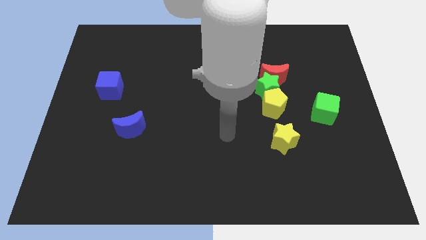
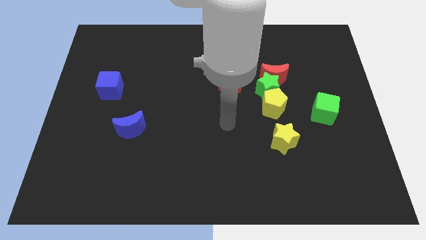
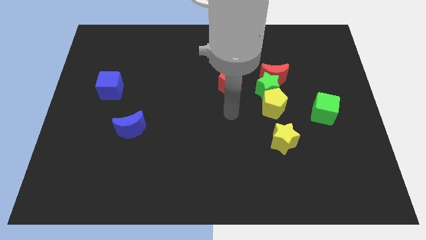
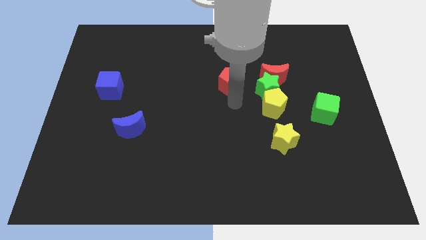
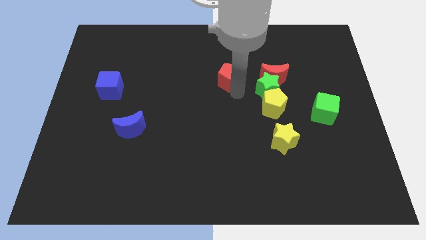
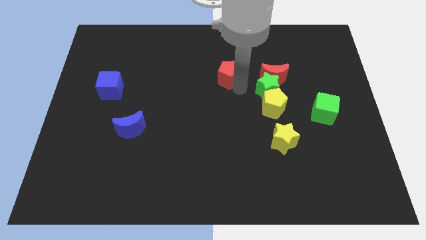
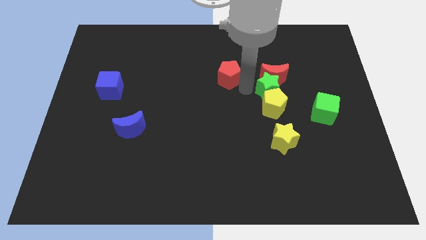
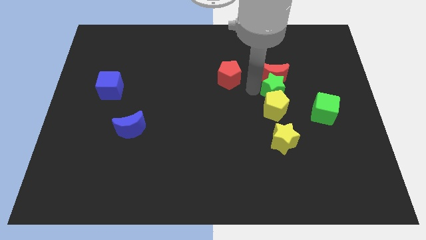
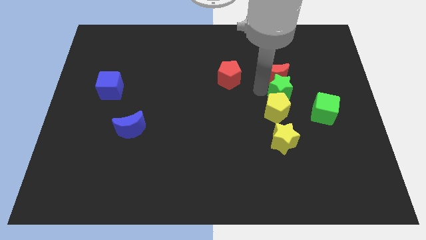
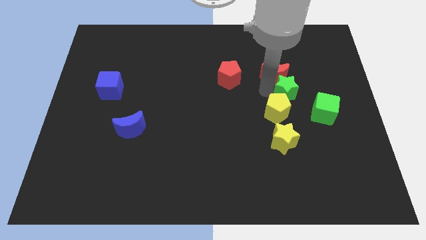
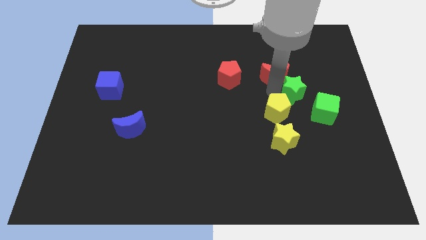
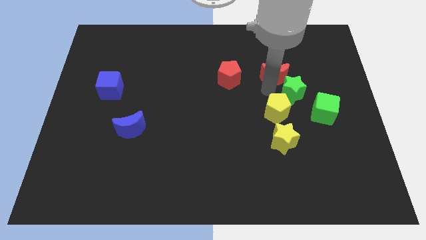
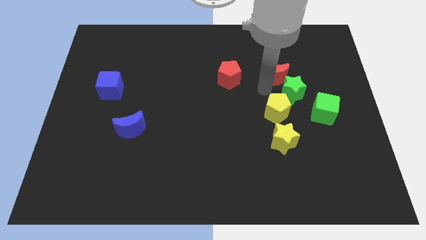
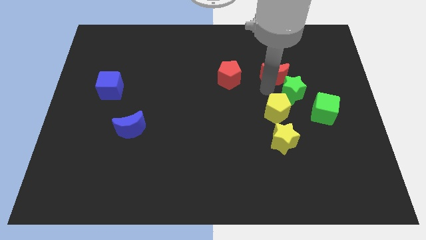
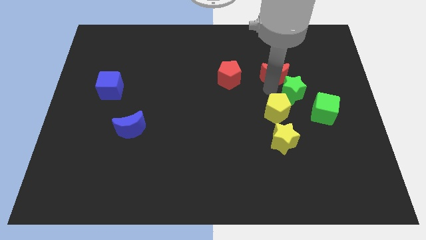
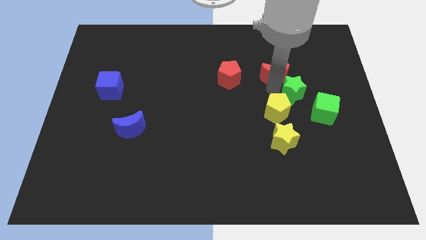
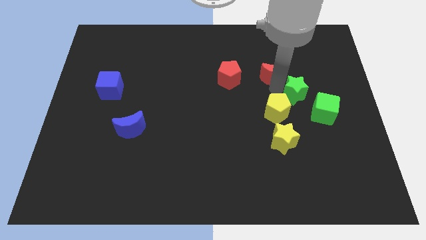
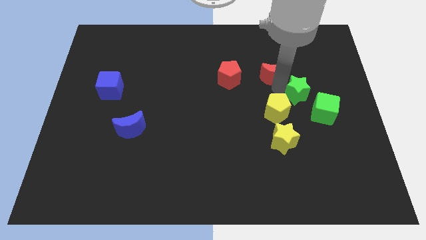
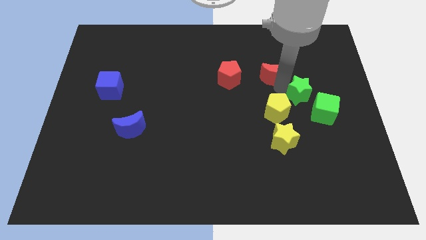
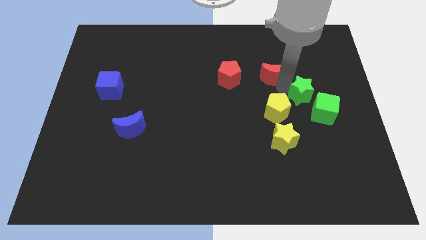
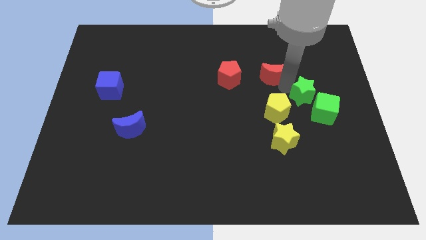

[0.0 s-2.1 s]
separate the green star from the group

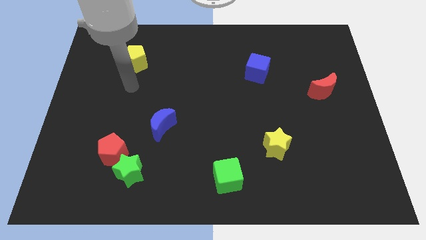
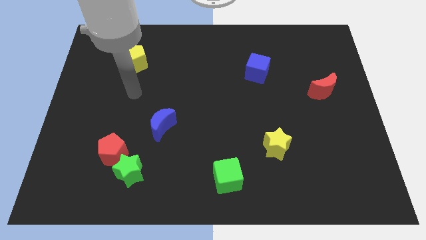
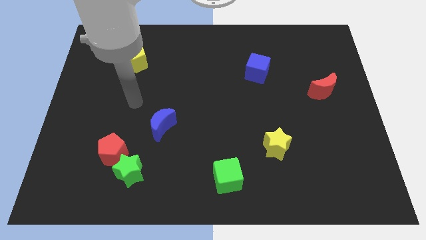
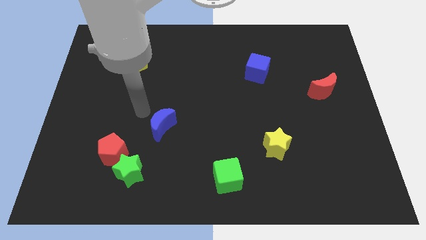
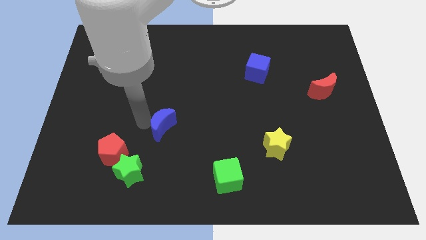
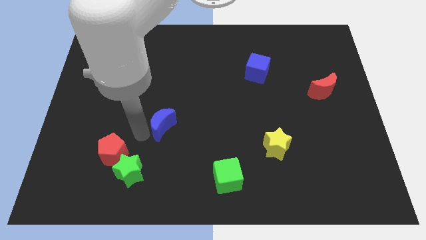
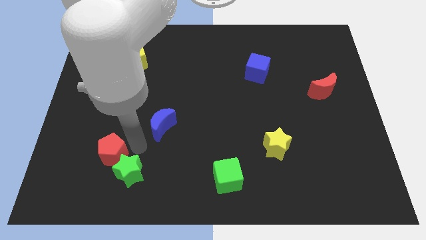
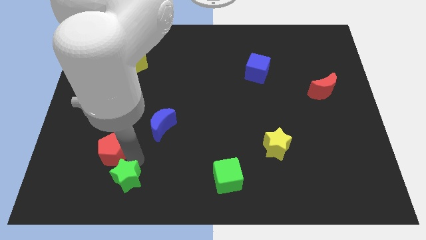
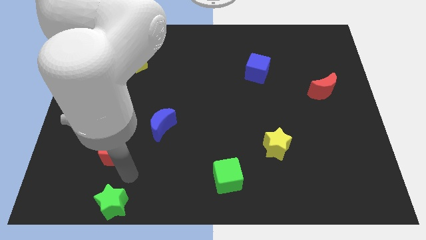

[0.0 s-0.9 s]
pull the red pentagon apart from the green star

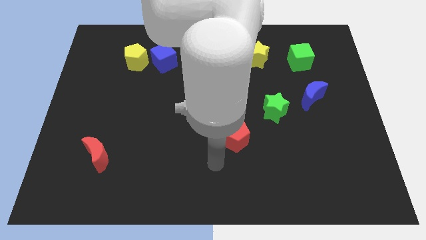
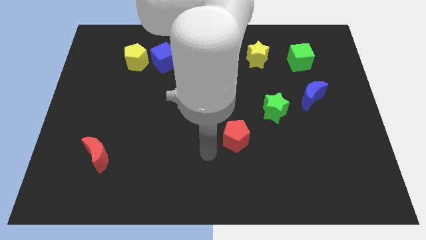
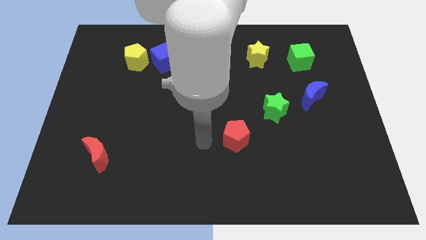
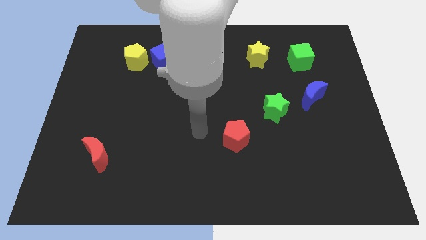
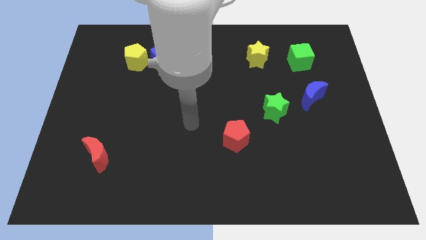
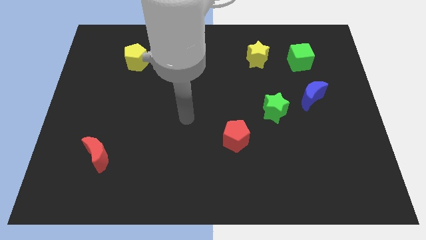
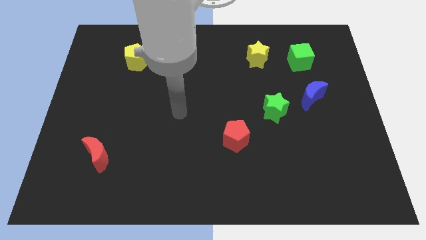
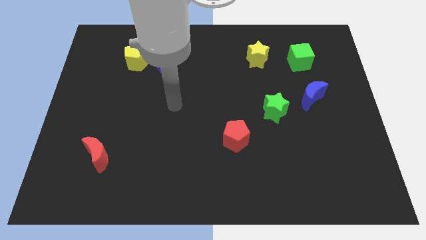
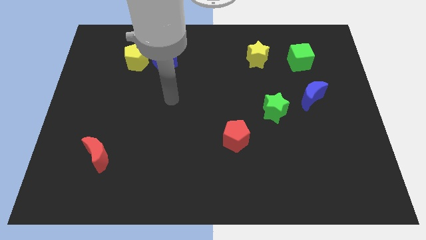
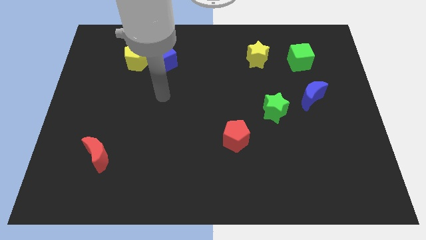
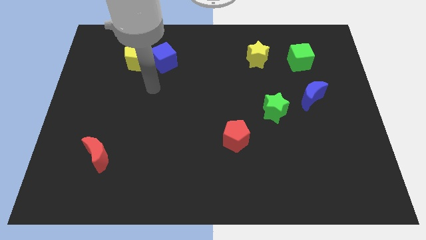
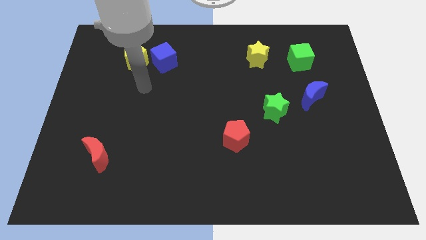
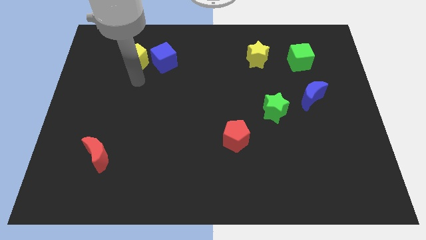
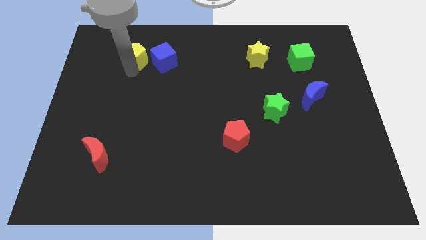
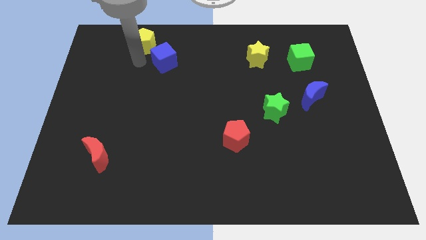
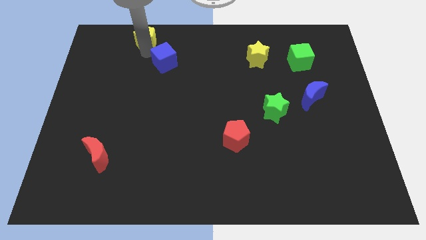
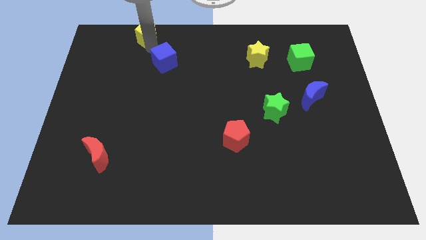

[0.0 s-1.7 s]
separate the blue cube from the yellow pentagon

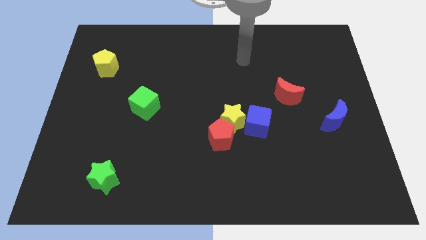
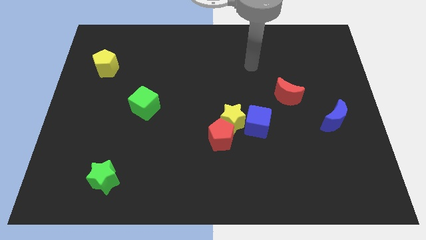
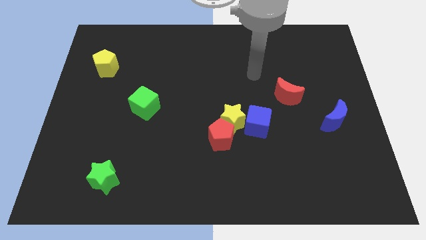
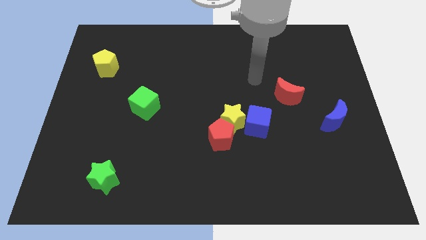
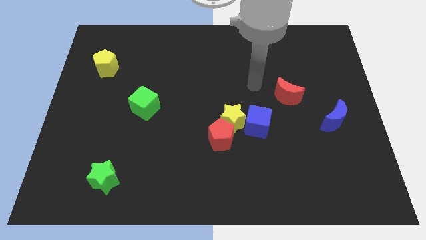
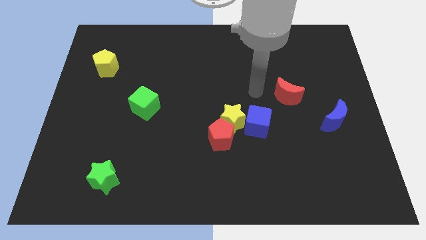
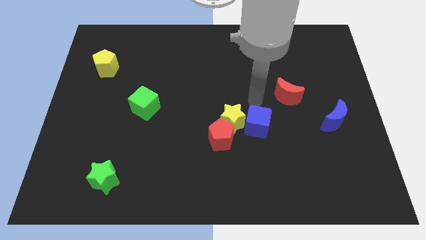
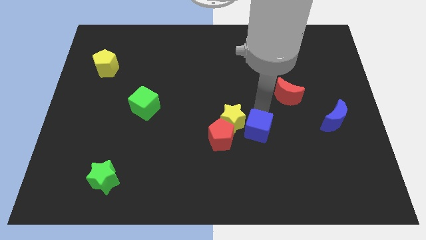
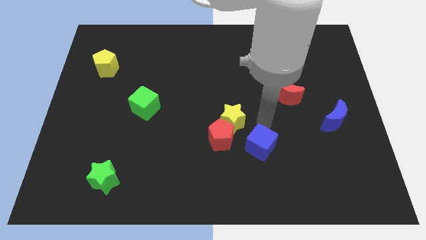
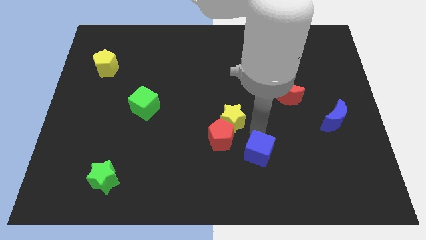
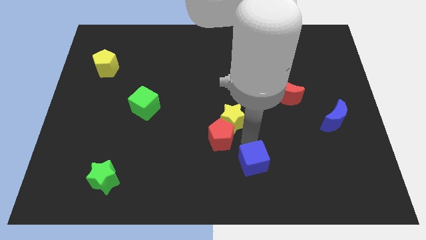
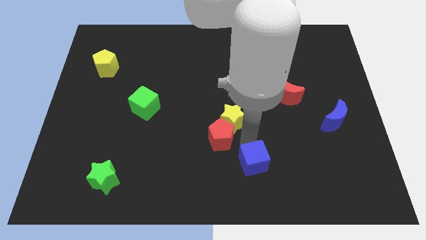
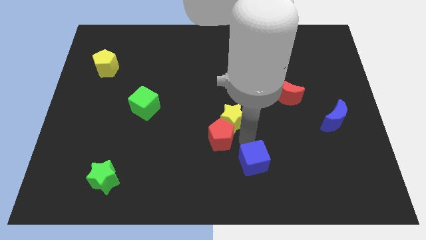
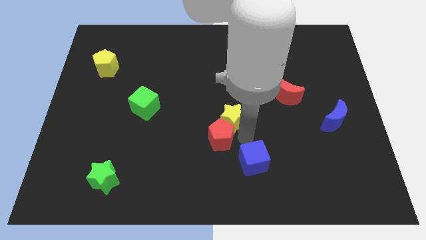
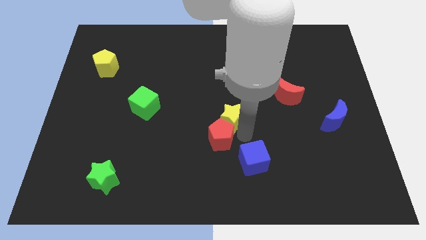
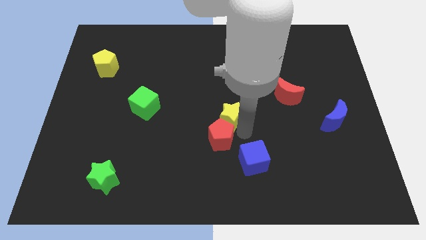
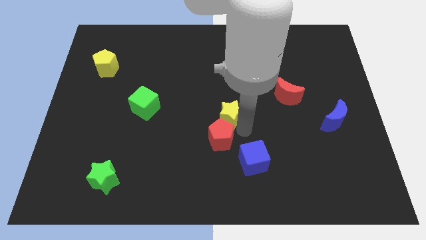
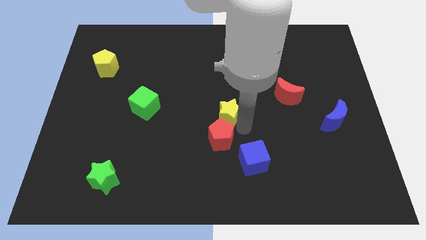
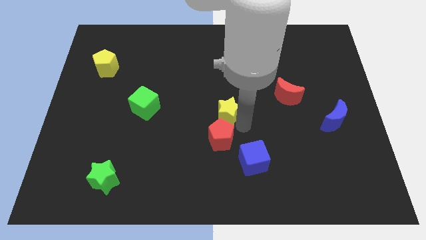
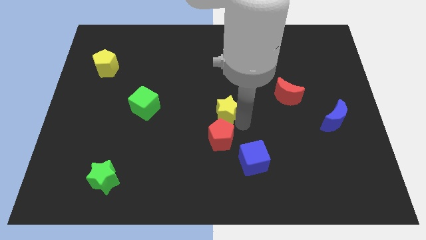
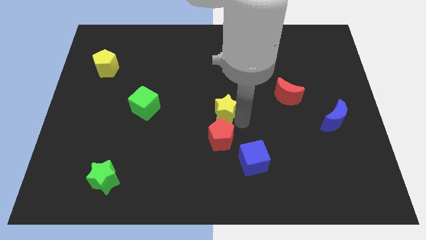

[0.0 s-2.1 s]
separate the yellow star from the red pentagon and blue cube

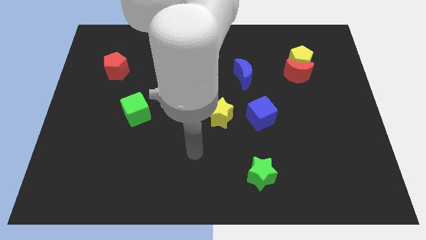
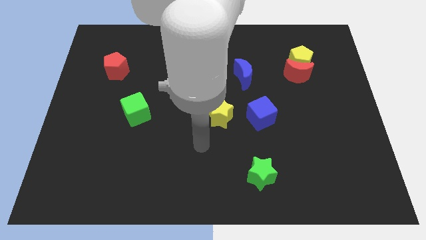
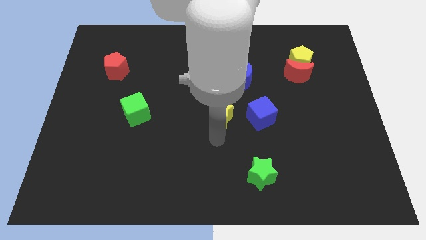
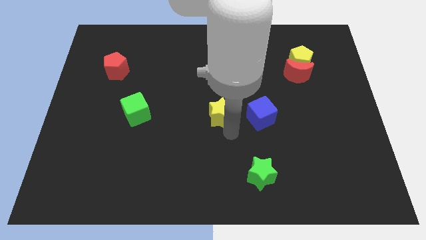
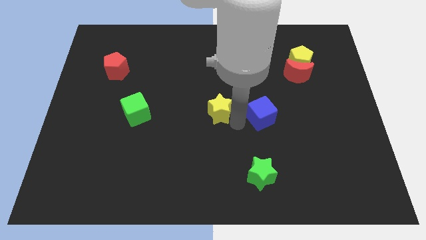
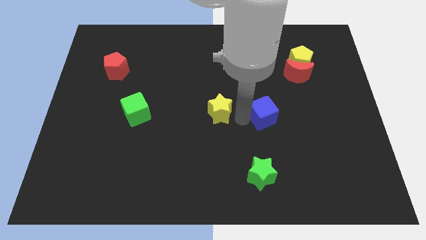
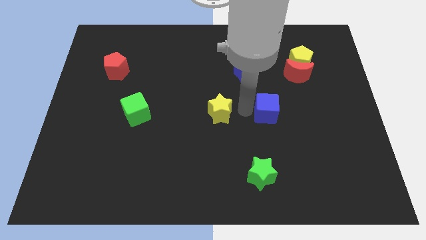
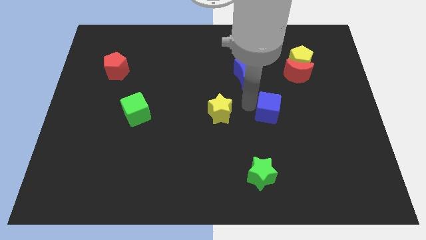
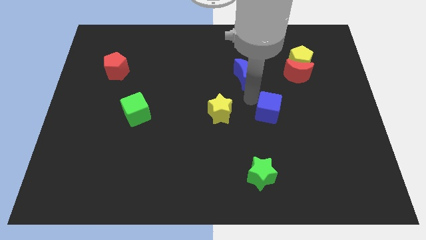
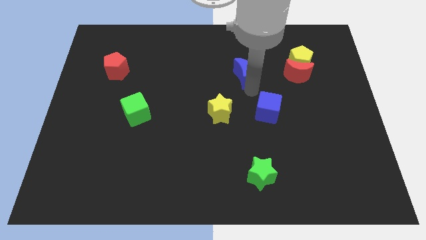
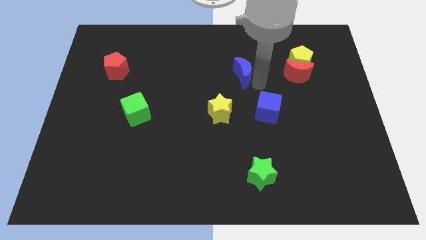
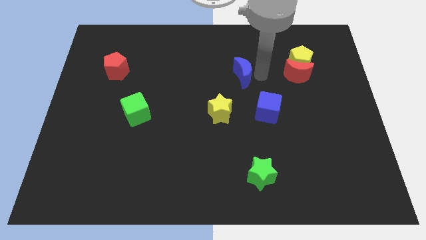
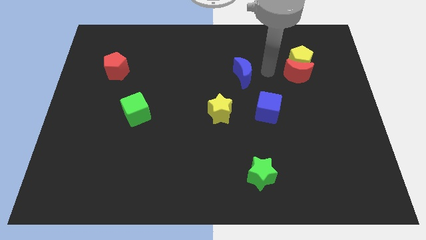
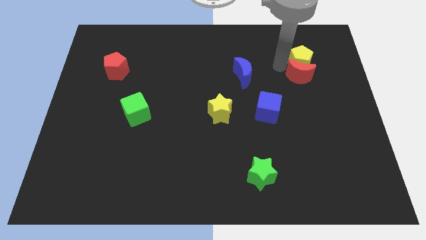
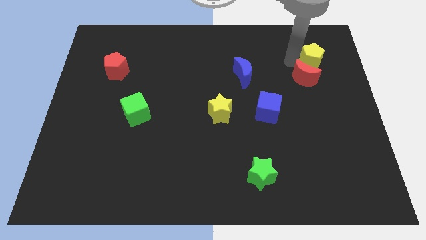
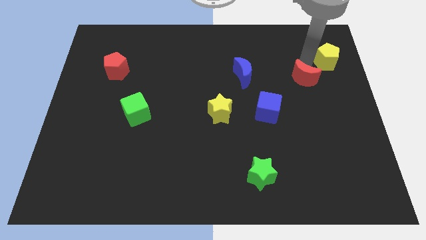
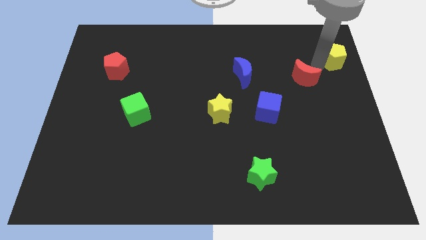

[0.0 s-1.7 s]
pull the red moon apart from the yellow pentagon

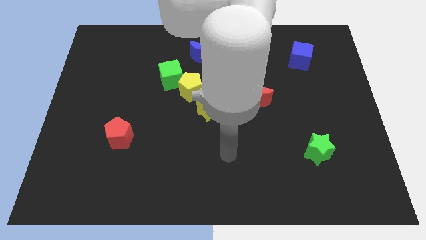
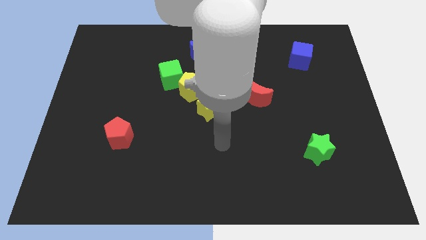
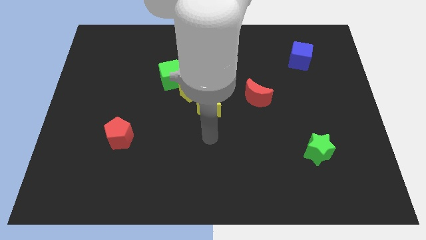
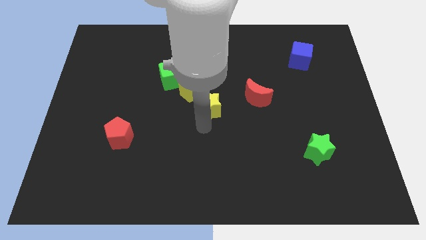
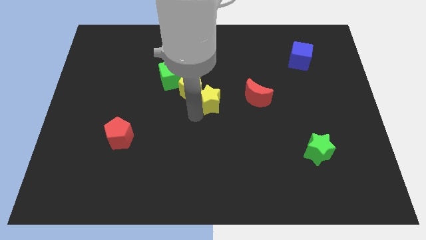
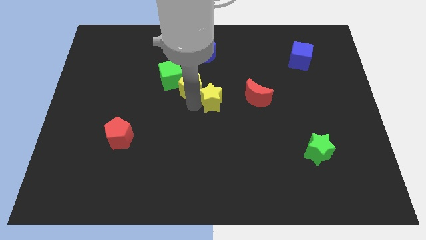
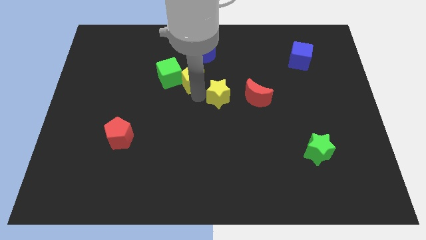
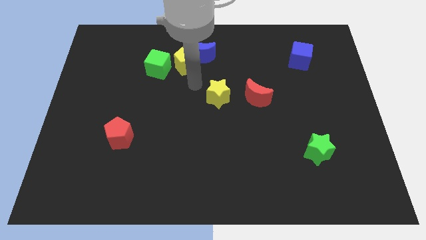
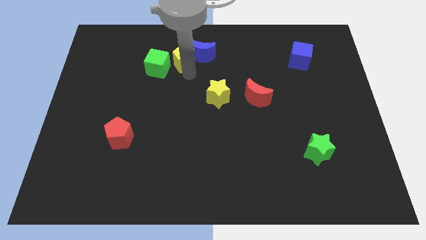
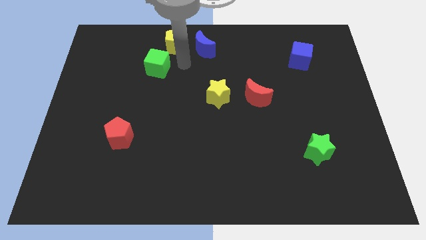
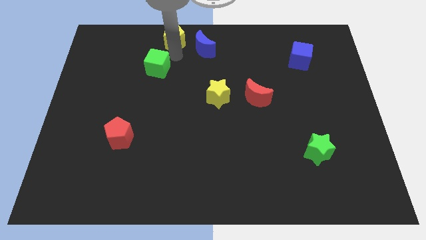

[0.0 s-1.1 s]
move the green cube away from the yellow pentagon
